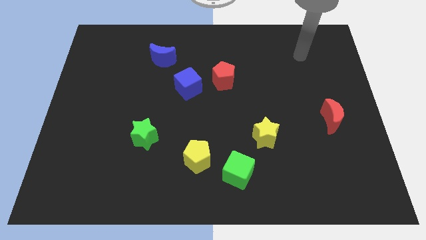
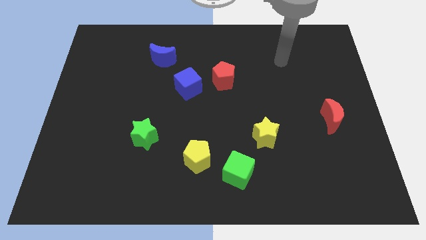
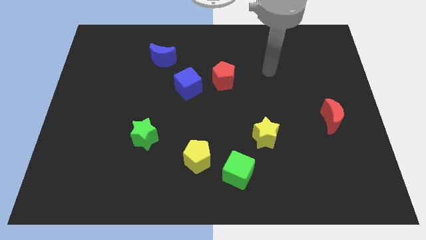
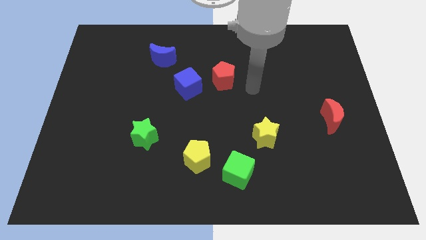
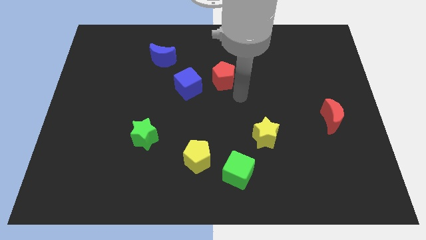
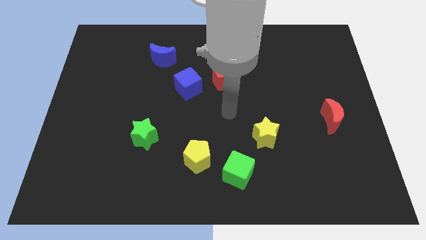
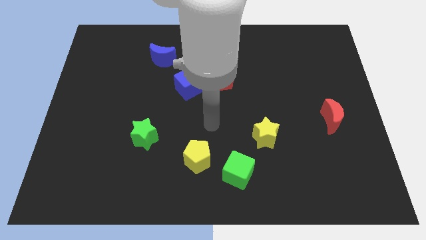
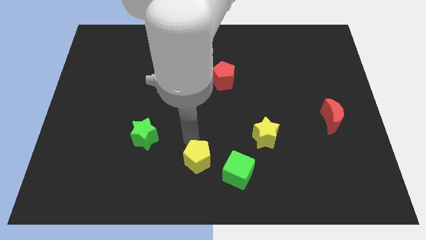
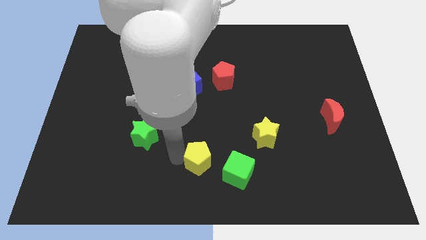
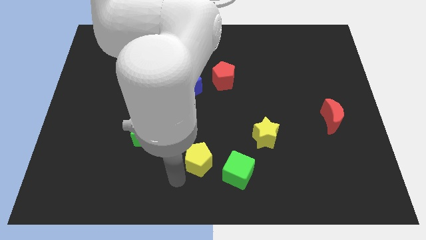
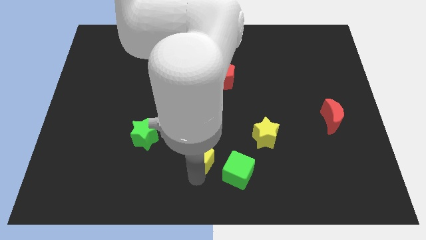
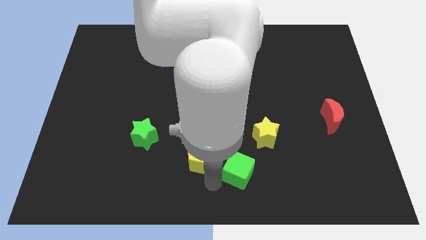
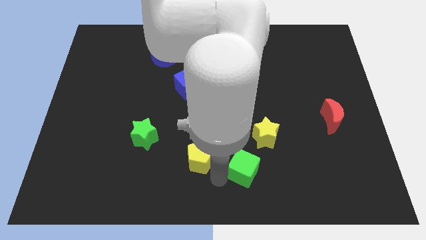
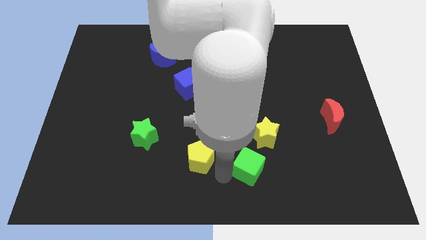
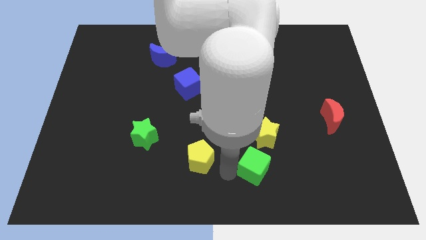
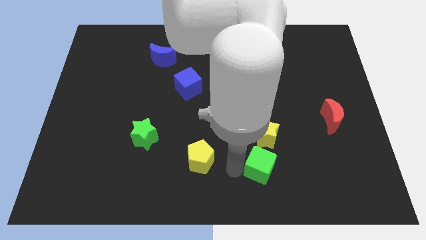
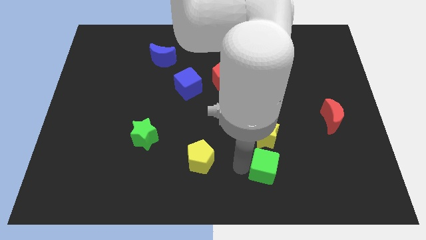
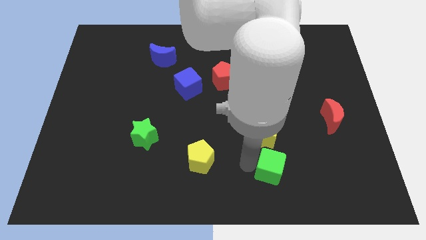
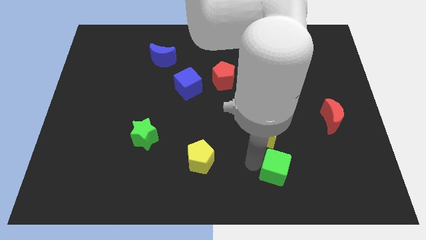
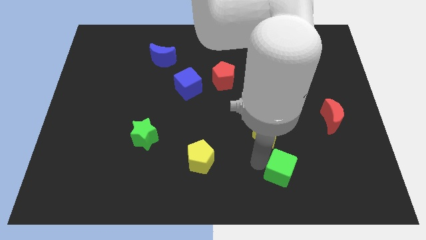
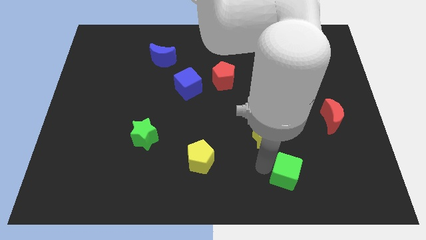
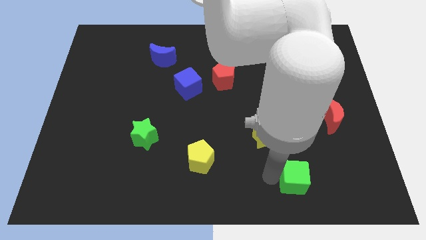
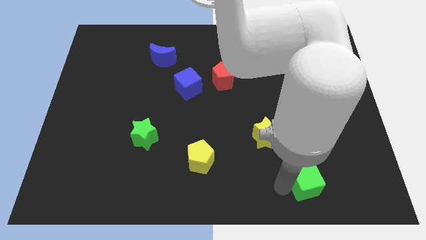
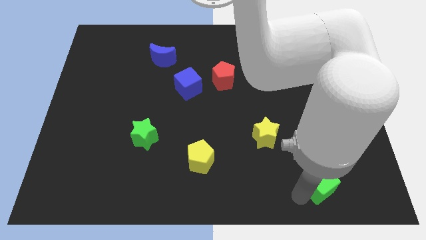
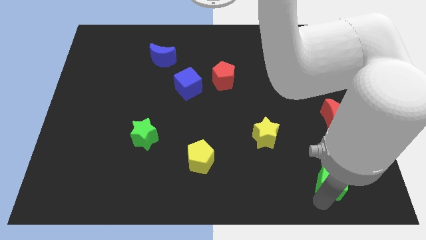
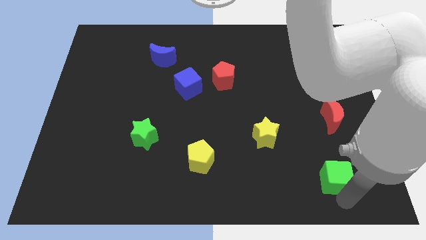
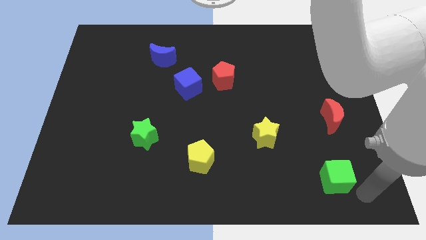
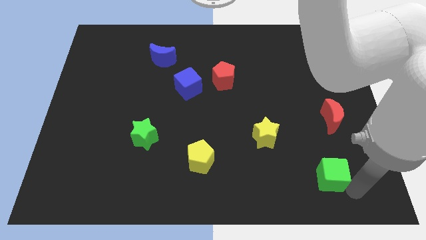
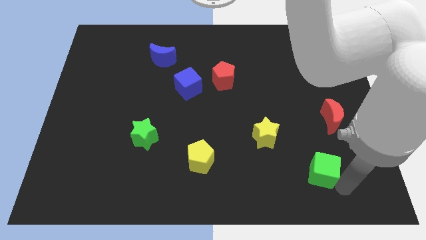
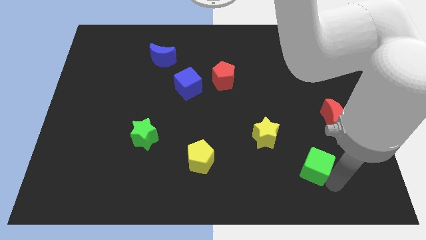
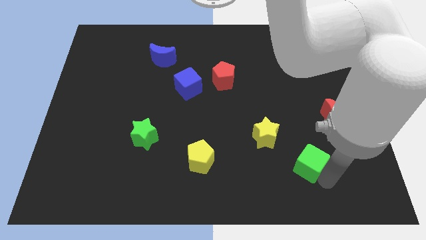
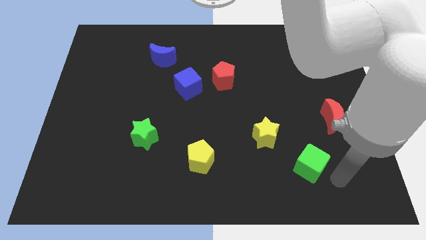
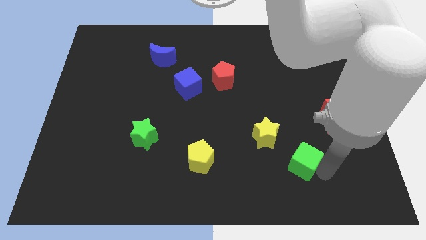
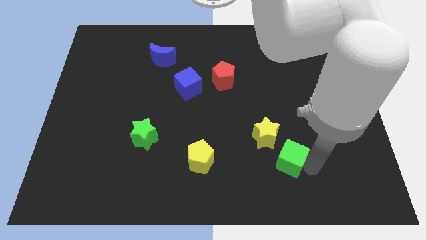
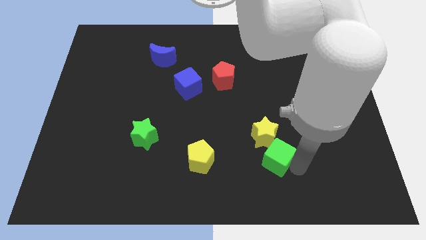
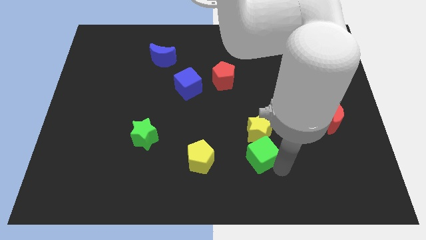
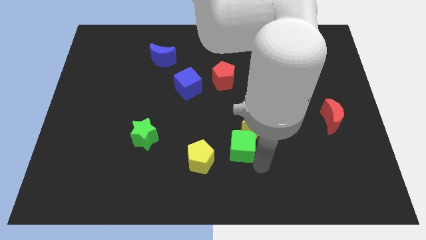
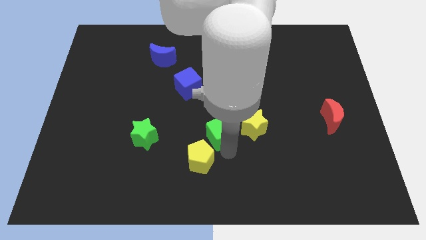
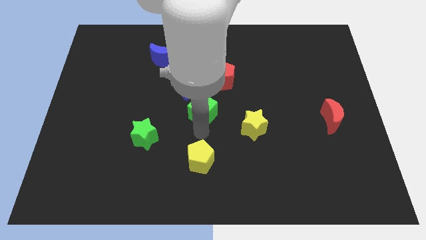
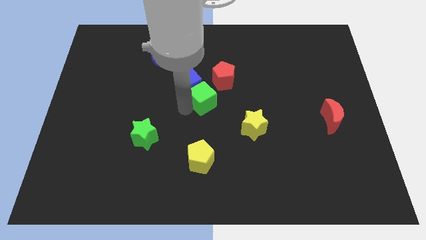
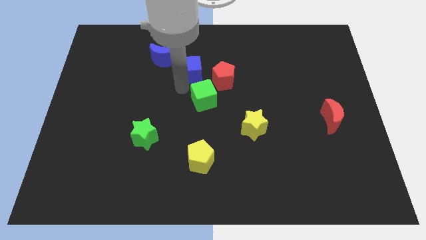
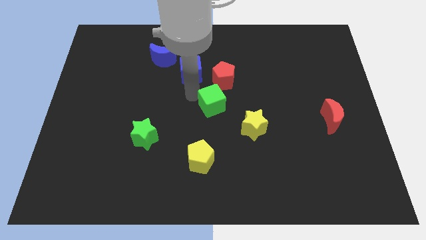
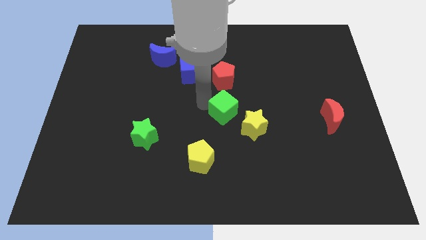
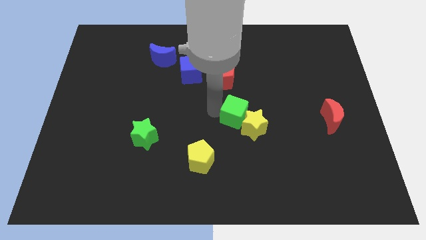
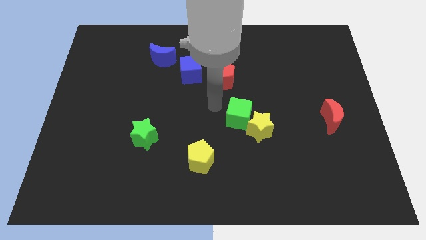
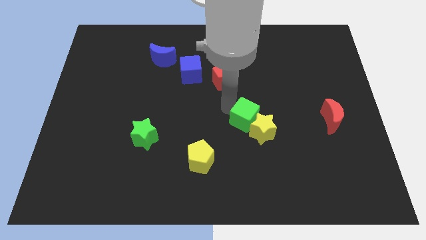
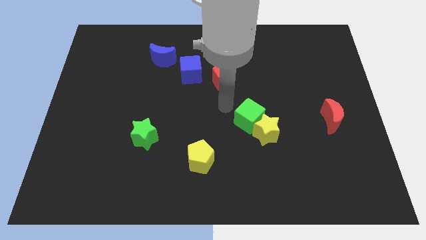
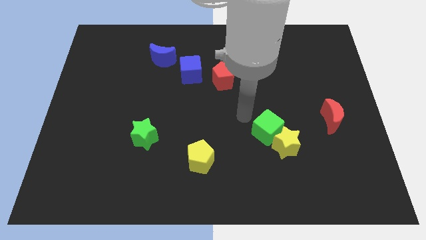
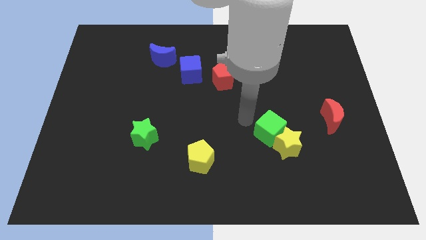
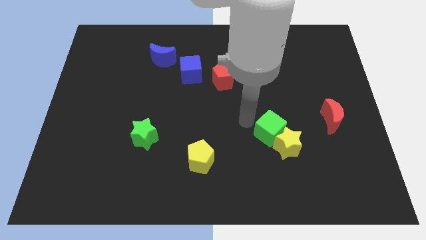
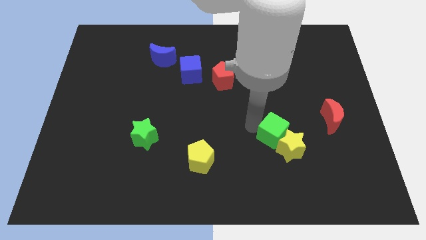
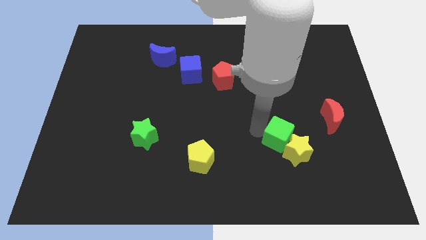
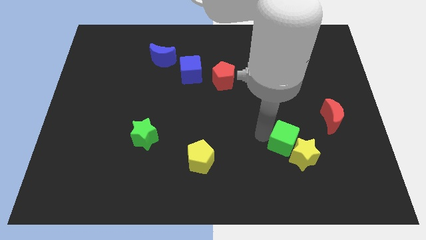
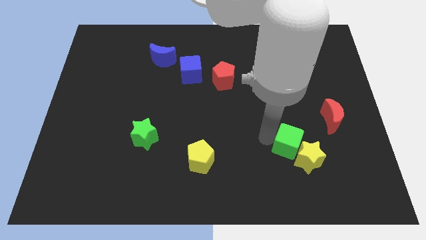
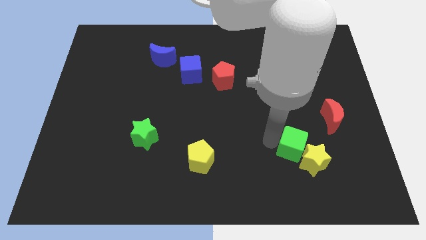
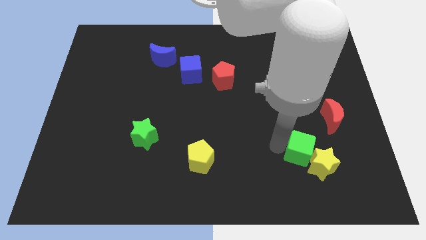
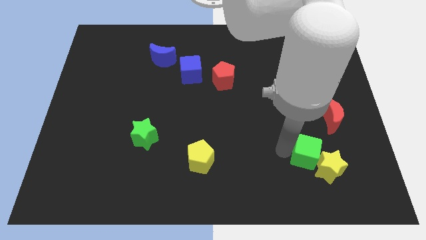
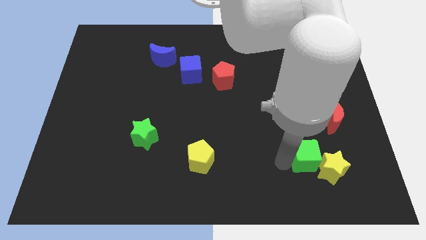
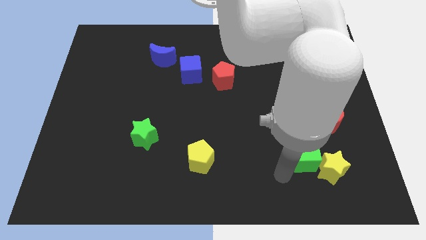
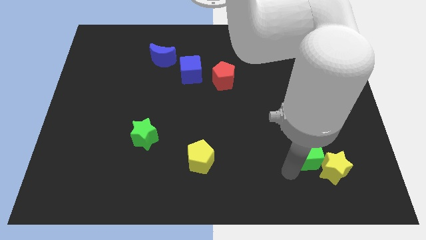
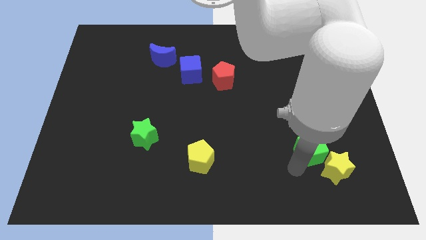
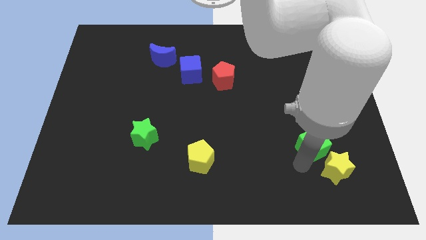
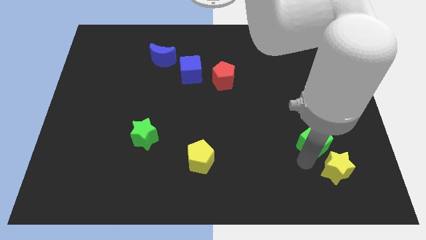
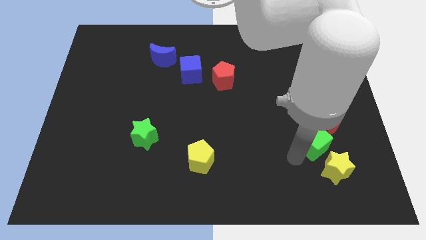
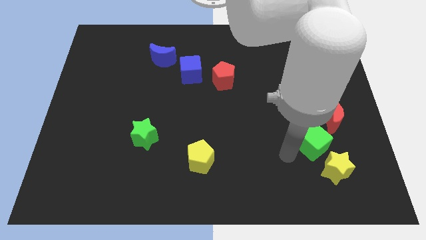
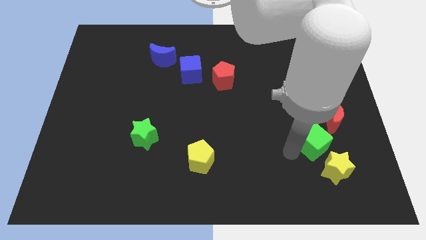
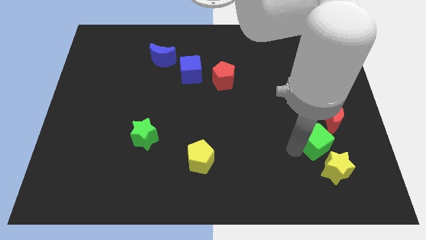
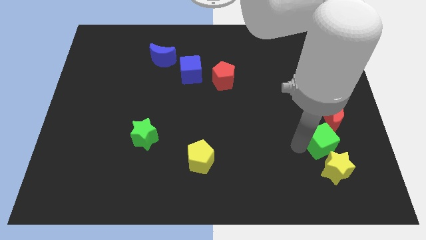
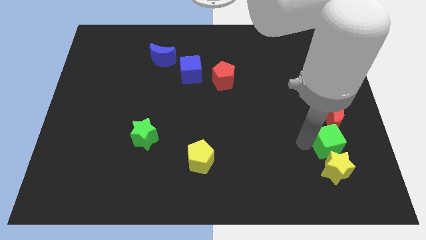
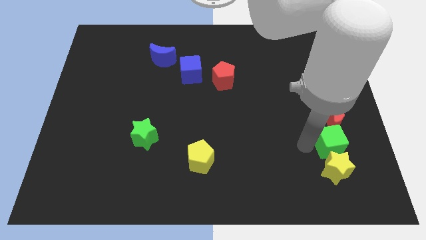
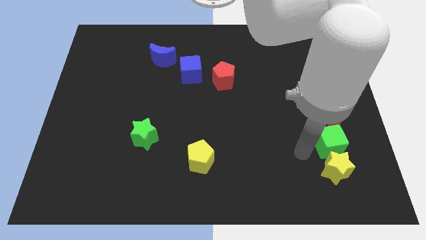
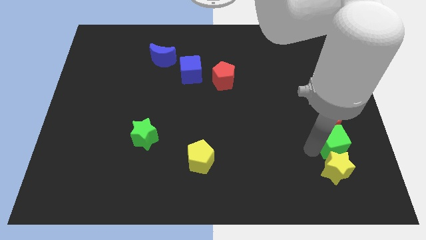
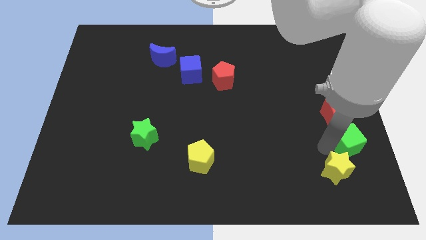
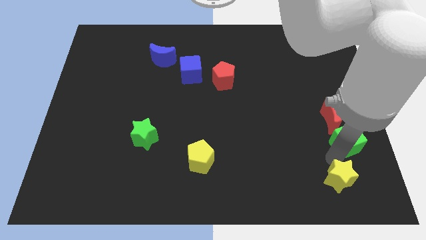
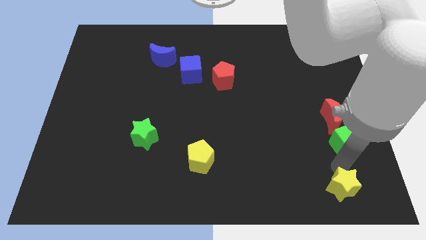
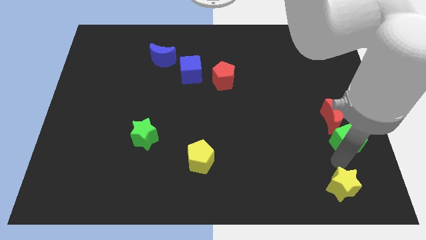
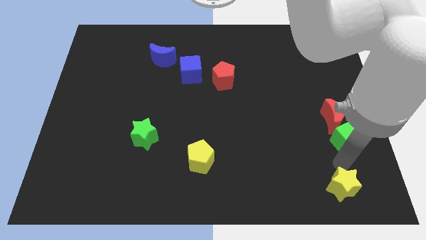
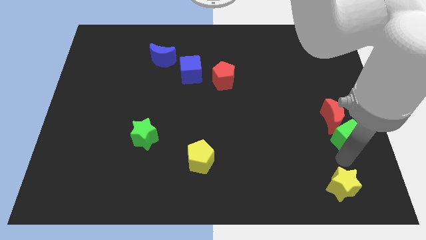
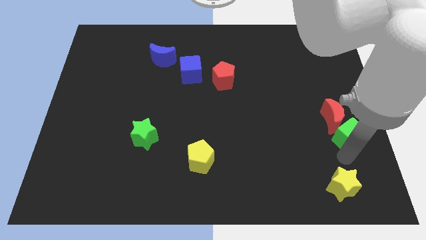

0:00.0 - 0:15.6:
push the green cube to the right side of the board
